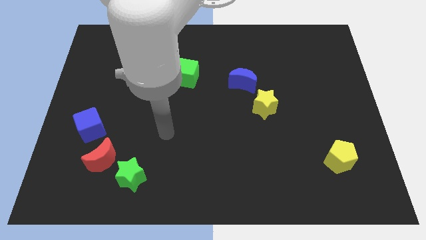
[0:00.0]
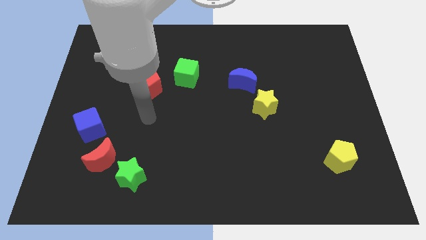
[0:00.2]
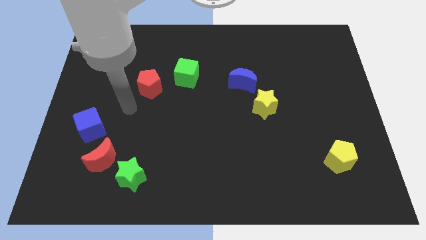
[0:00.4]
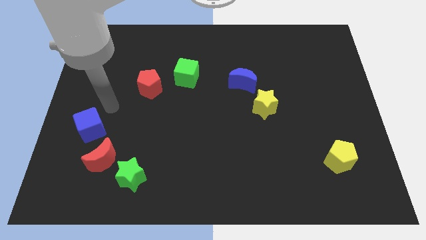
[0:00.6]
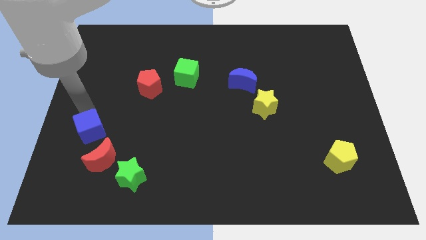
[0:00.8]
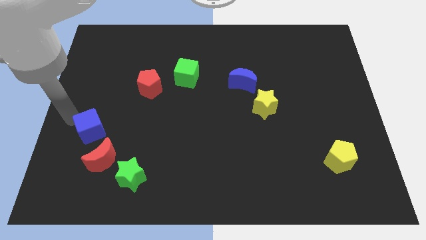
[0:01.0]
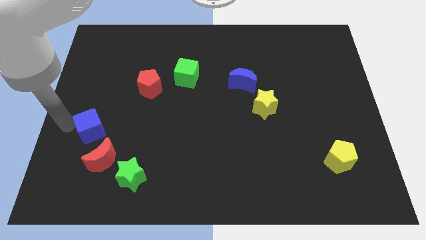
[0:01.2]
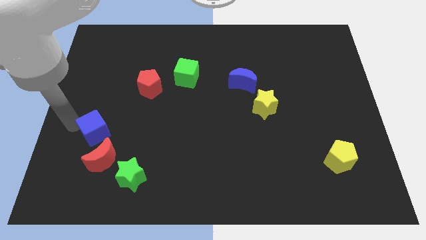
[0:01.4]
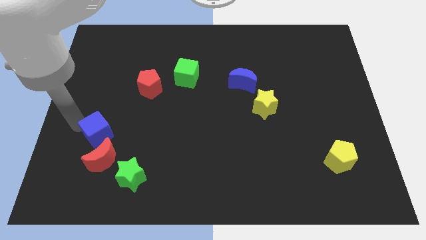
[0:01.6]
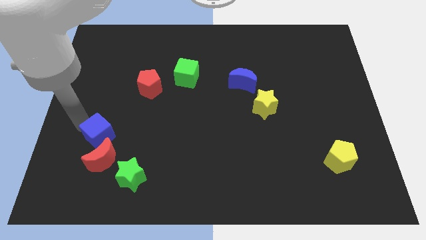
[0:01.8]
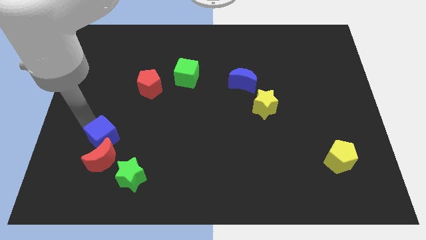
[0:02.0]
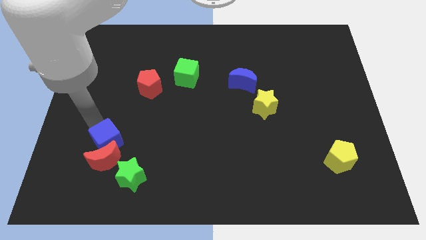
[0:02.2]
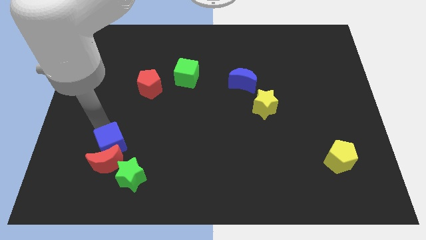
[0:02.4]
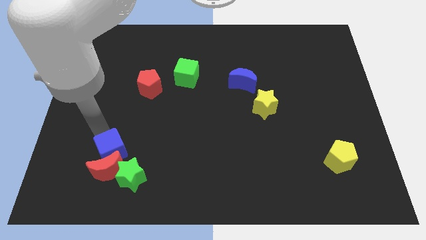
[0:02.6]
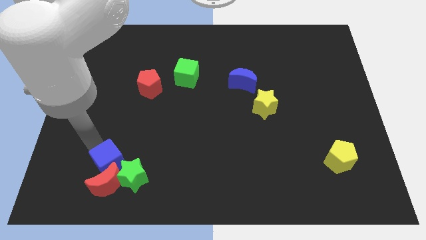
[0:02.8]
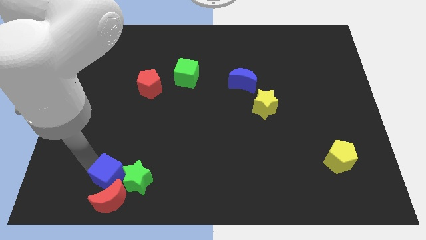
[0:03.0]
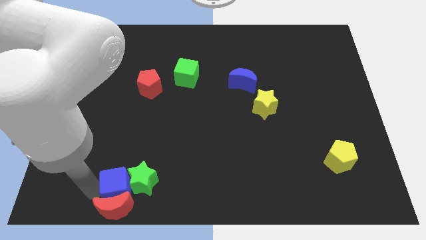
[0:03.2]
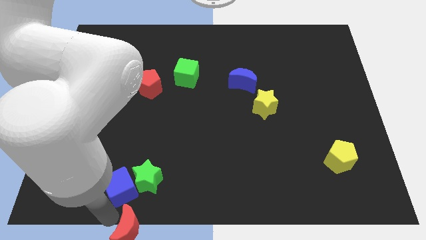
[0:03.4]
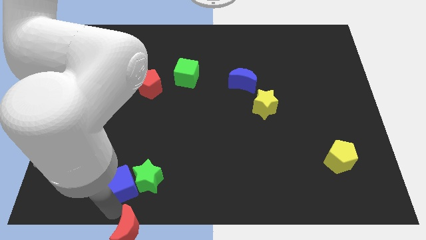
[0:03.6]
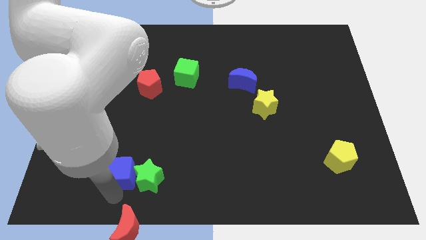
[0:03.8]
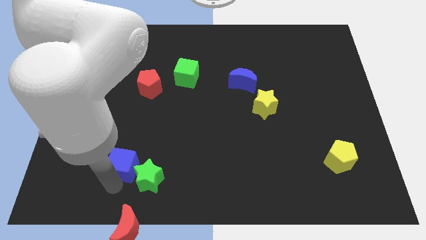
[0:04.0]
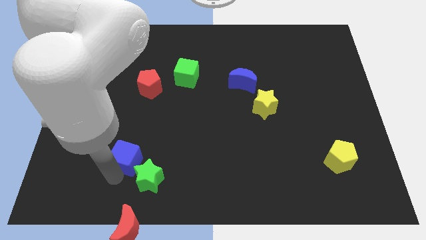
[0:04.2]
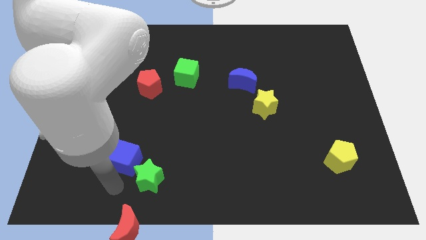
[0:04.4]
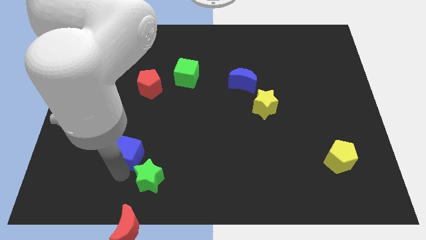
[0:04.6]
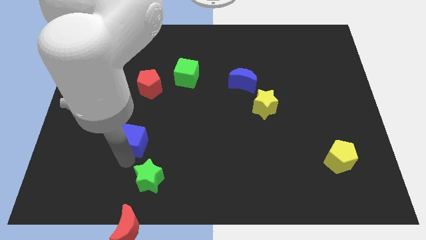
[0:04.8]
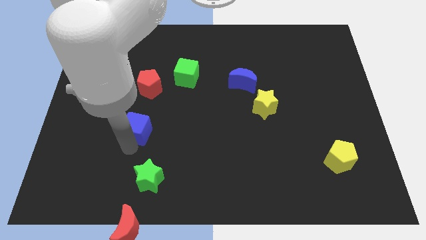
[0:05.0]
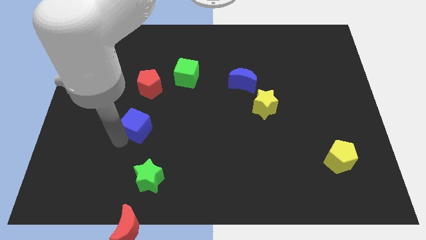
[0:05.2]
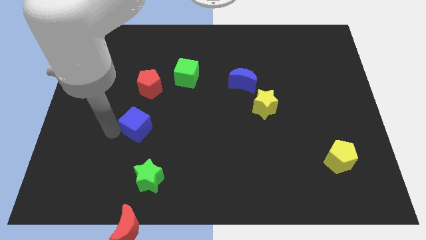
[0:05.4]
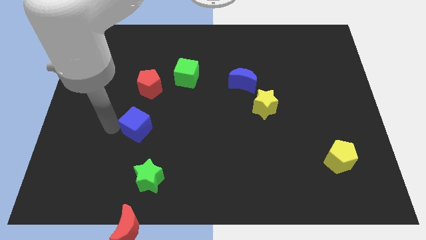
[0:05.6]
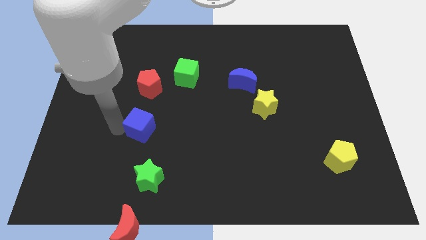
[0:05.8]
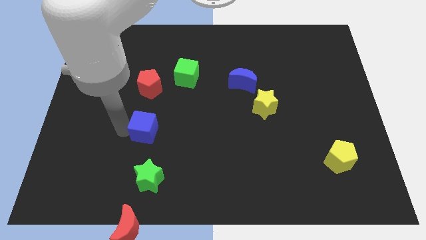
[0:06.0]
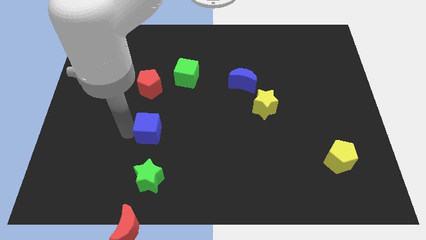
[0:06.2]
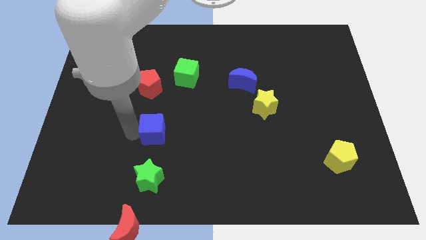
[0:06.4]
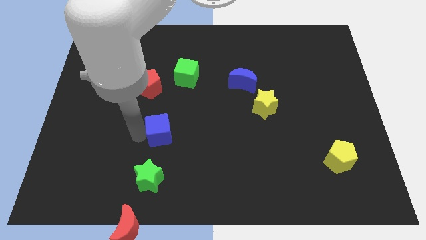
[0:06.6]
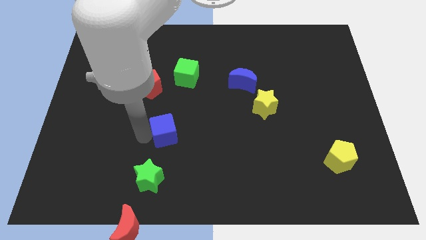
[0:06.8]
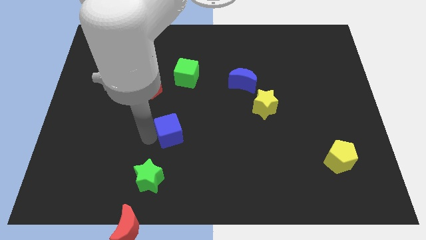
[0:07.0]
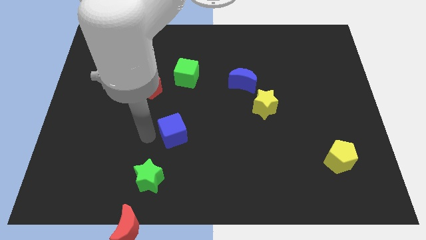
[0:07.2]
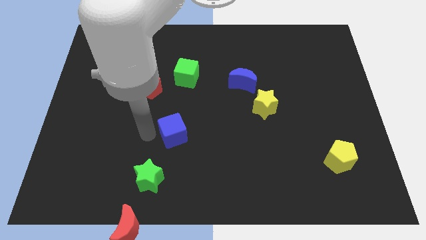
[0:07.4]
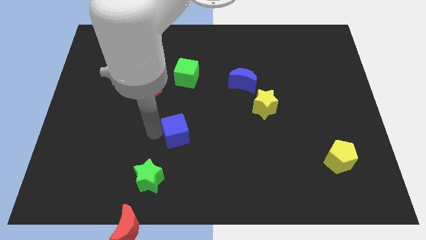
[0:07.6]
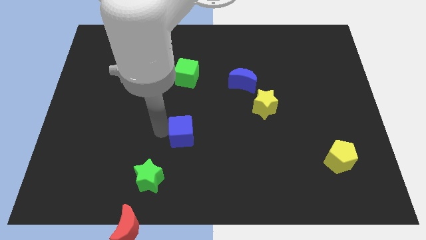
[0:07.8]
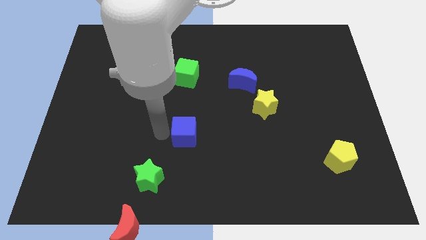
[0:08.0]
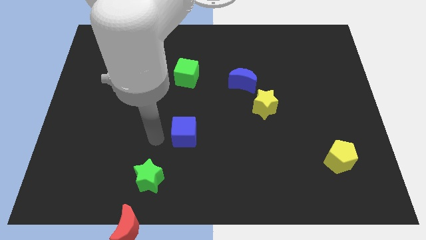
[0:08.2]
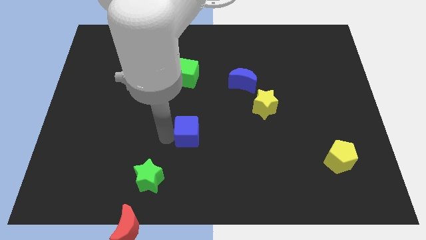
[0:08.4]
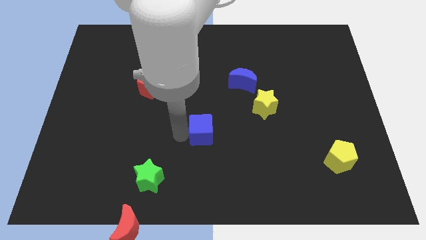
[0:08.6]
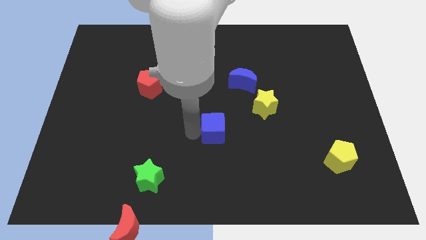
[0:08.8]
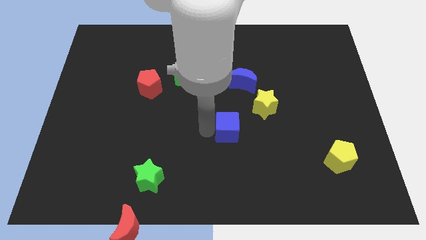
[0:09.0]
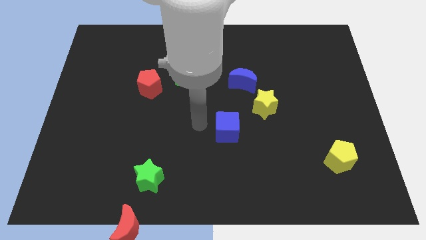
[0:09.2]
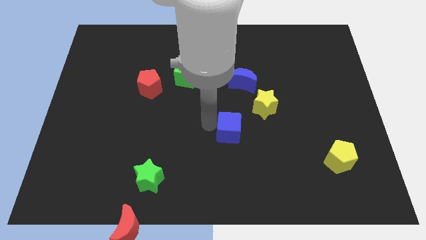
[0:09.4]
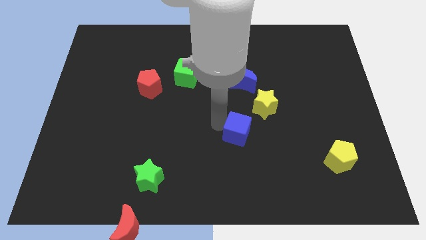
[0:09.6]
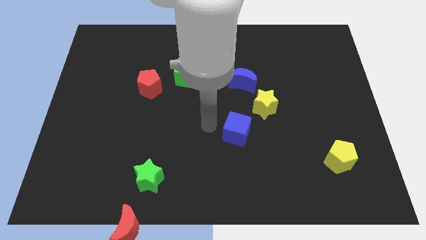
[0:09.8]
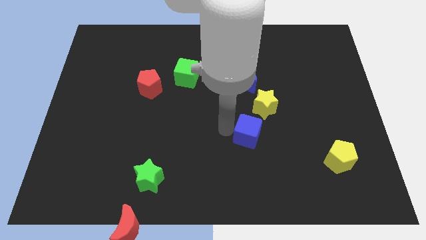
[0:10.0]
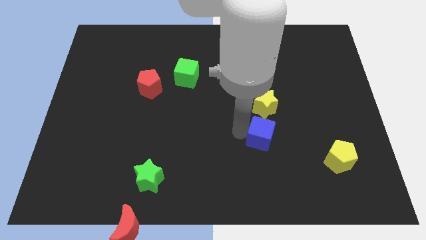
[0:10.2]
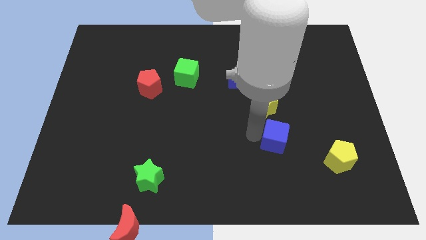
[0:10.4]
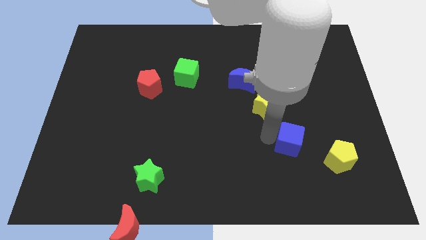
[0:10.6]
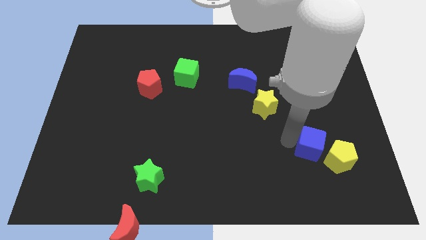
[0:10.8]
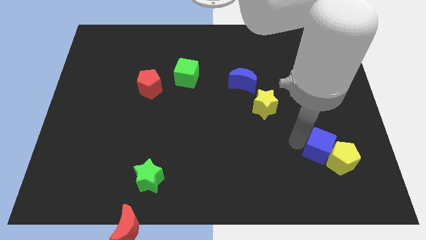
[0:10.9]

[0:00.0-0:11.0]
move the blue cube next to the yellow pentagon

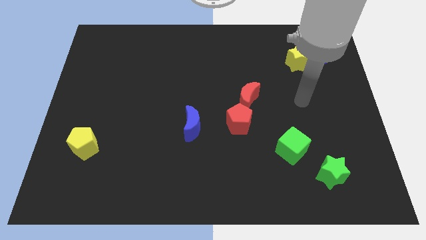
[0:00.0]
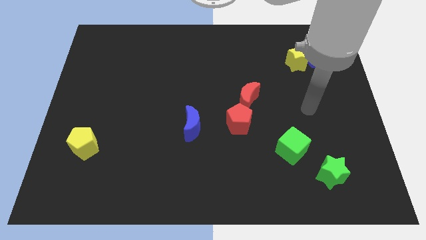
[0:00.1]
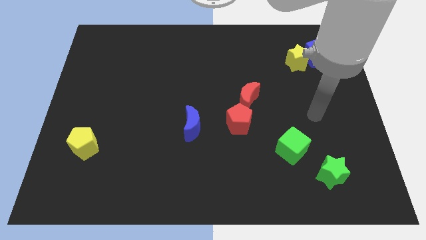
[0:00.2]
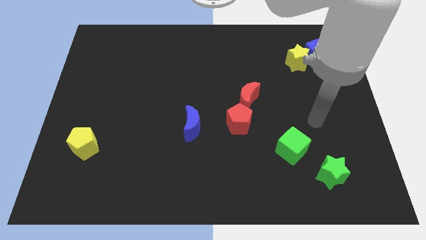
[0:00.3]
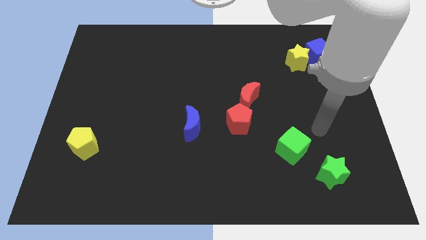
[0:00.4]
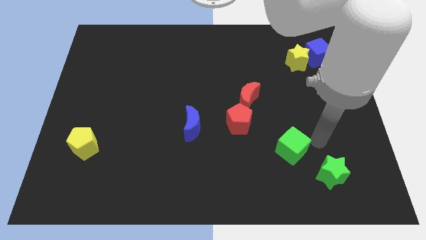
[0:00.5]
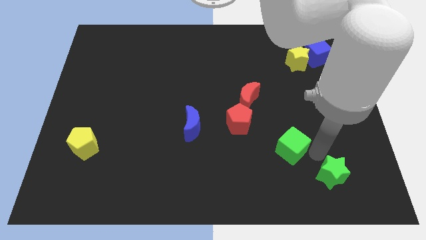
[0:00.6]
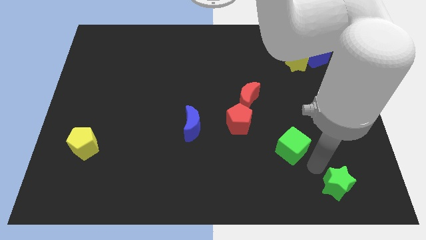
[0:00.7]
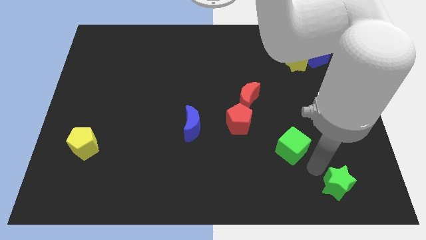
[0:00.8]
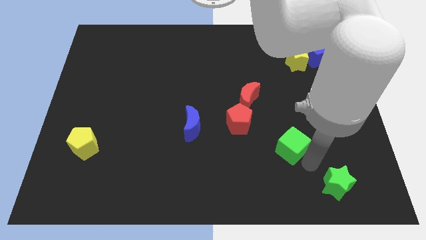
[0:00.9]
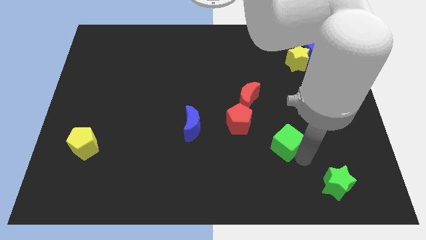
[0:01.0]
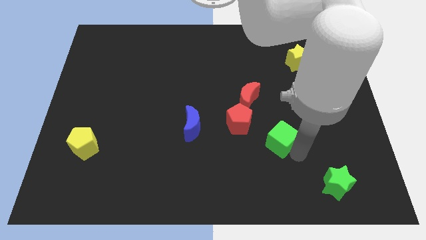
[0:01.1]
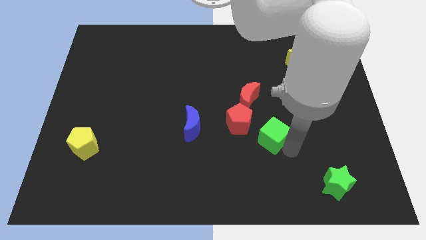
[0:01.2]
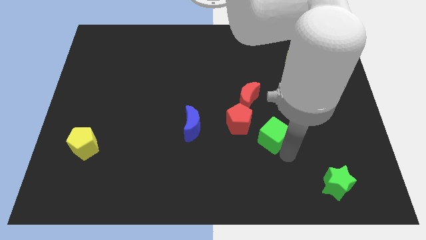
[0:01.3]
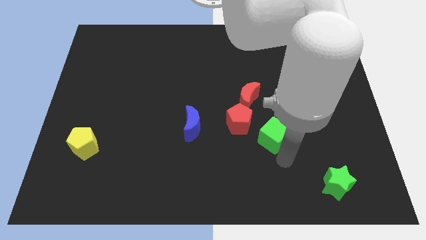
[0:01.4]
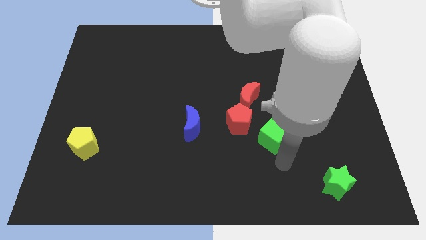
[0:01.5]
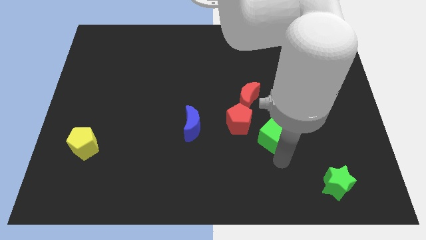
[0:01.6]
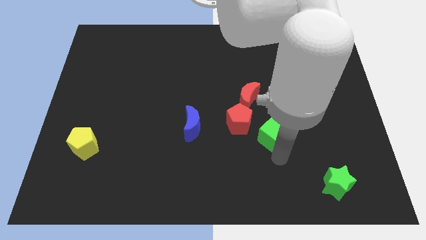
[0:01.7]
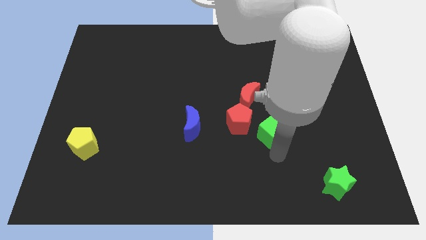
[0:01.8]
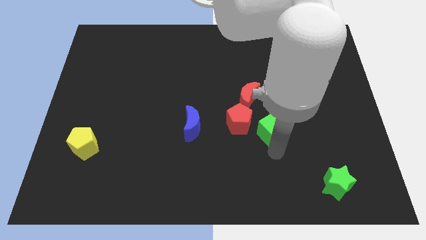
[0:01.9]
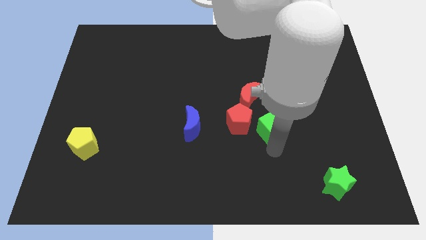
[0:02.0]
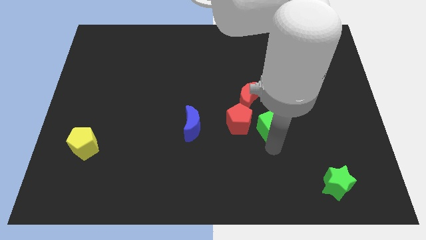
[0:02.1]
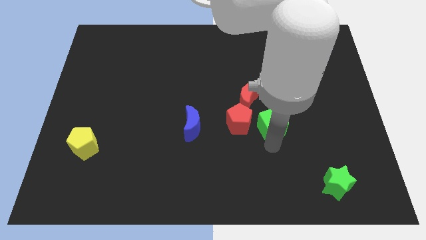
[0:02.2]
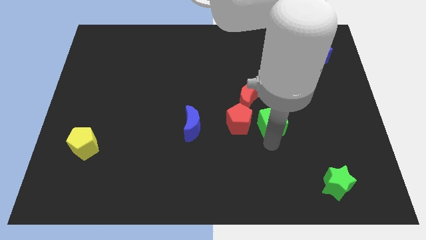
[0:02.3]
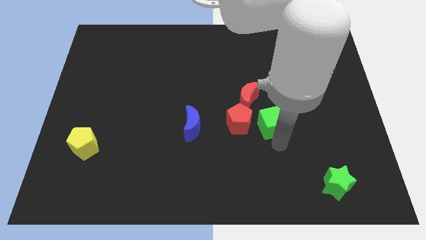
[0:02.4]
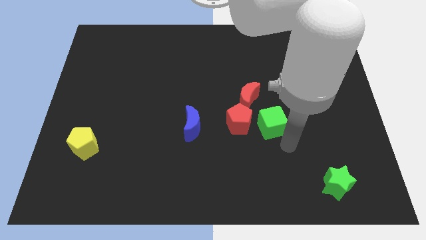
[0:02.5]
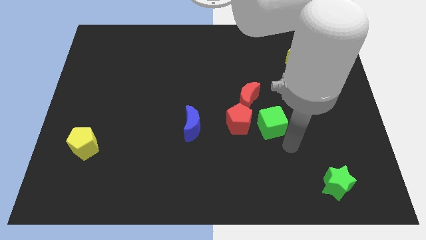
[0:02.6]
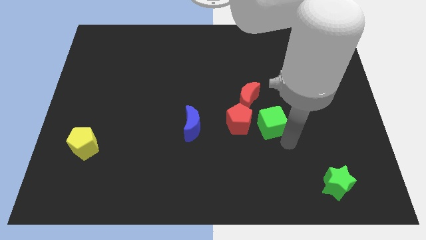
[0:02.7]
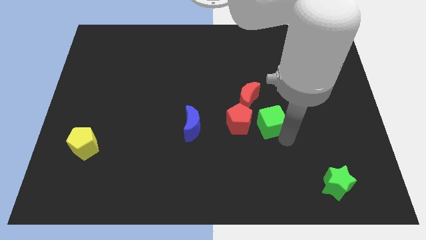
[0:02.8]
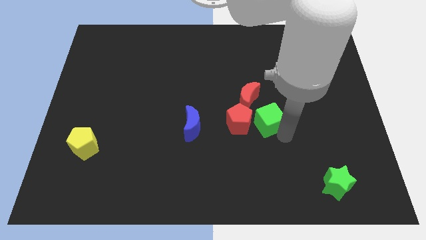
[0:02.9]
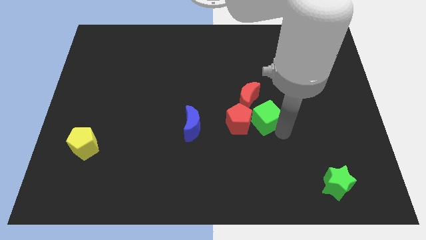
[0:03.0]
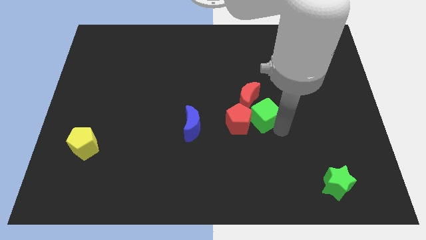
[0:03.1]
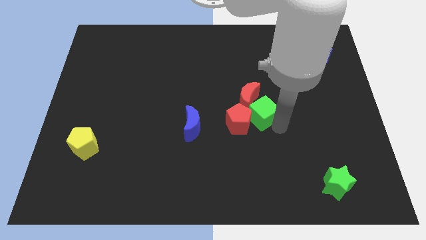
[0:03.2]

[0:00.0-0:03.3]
push the green cube to the red moon
